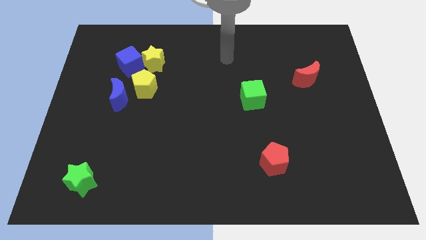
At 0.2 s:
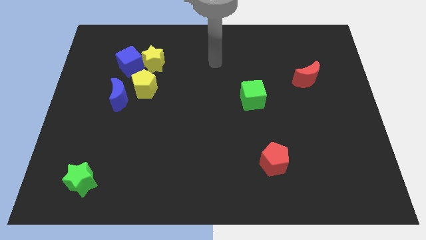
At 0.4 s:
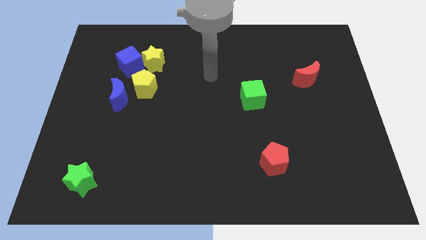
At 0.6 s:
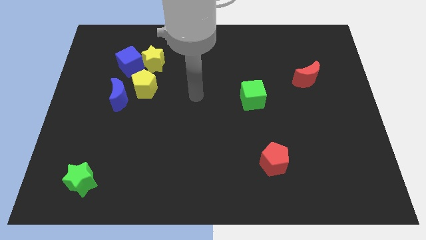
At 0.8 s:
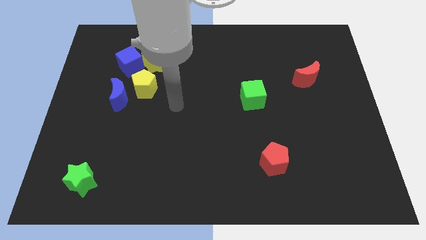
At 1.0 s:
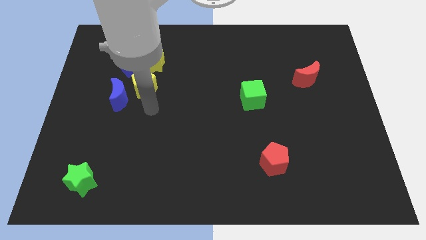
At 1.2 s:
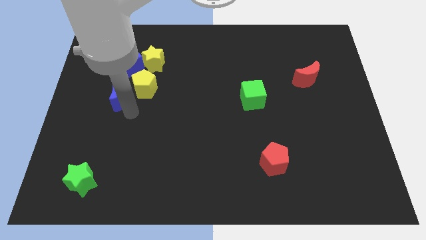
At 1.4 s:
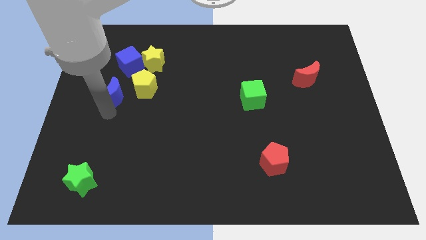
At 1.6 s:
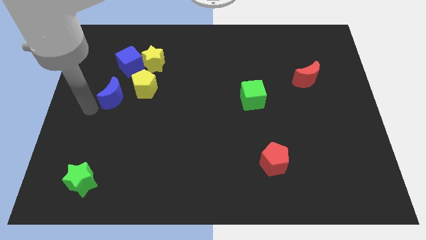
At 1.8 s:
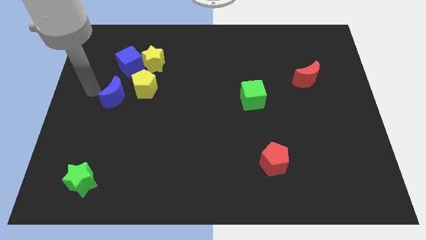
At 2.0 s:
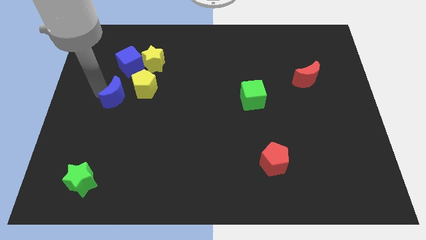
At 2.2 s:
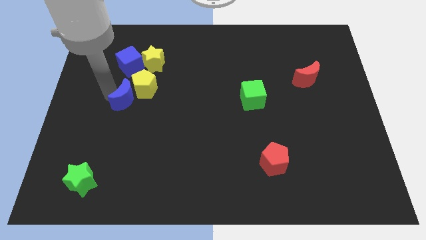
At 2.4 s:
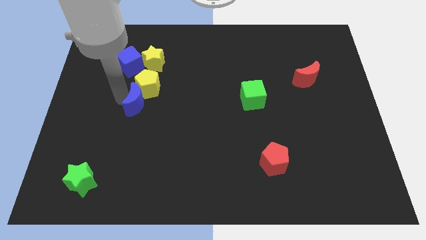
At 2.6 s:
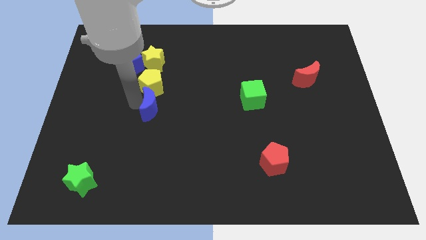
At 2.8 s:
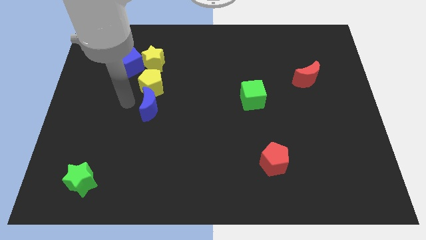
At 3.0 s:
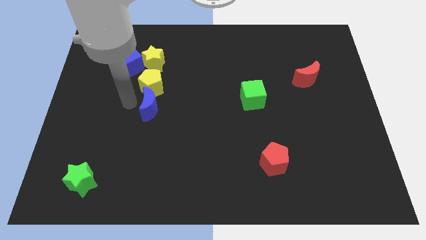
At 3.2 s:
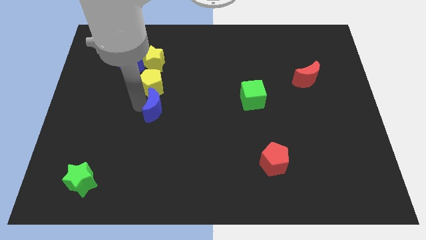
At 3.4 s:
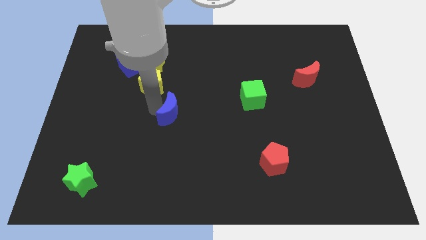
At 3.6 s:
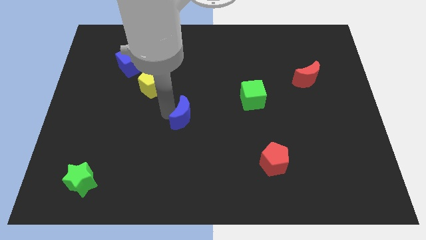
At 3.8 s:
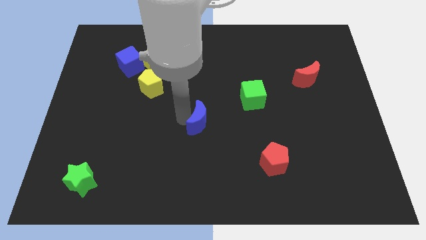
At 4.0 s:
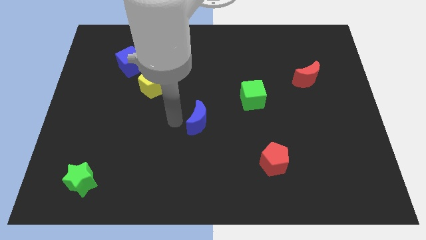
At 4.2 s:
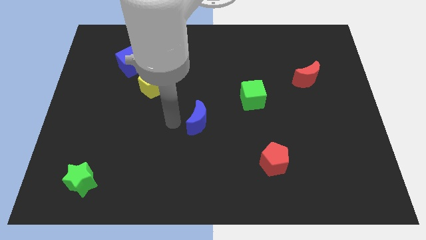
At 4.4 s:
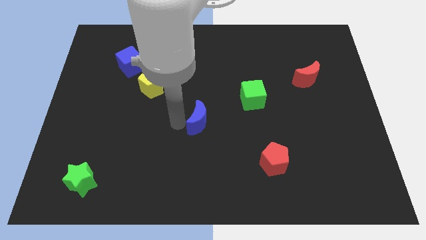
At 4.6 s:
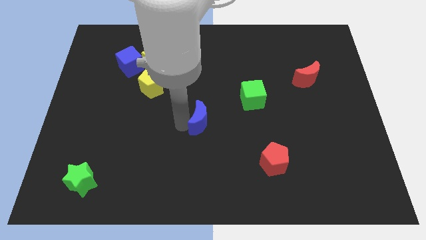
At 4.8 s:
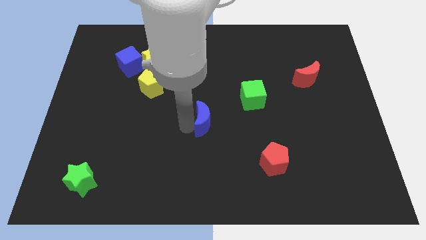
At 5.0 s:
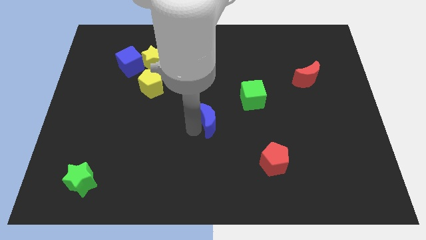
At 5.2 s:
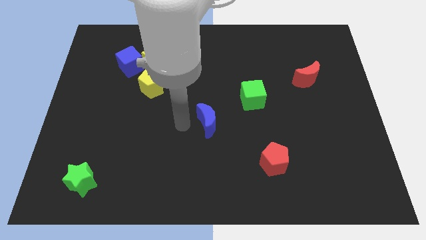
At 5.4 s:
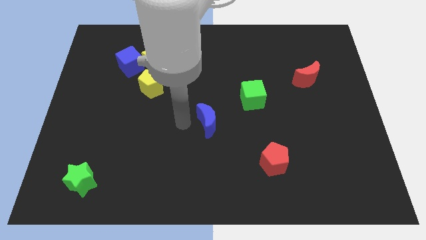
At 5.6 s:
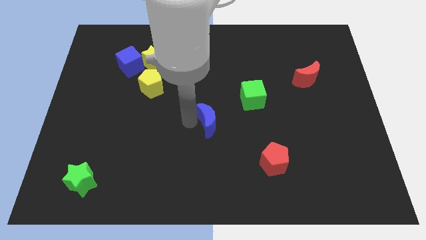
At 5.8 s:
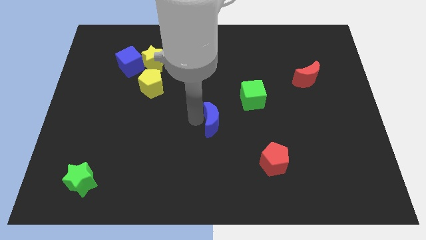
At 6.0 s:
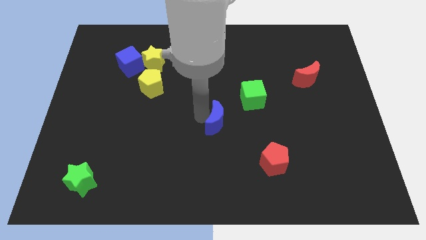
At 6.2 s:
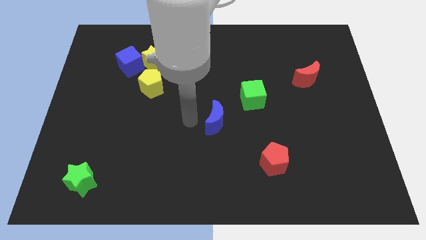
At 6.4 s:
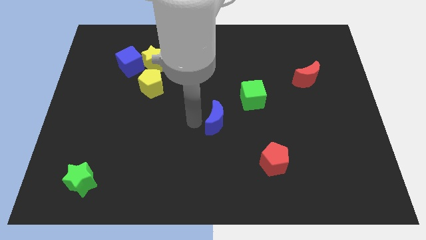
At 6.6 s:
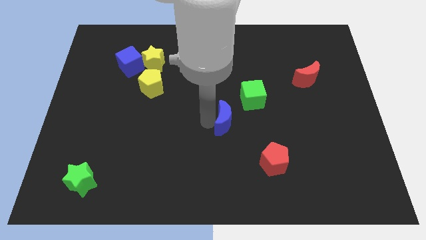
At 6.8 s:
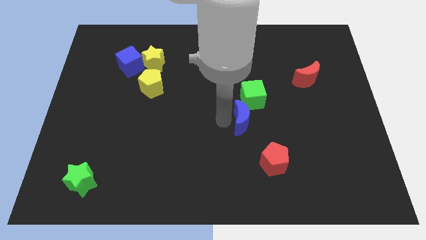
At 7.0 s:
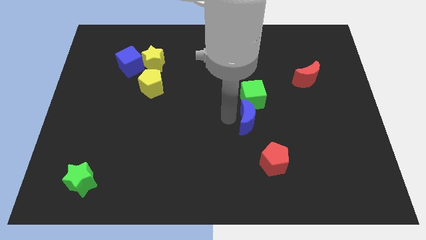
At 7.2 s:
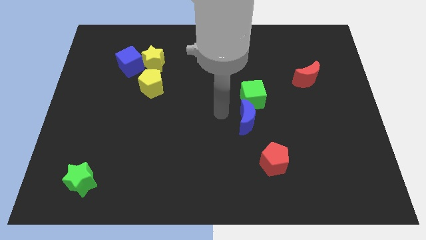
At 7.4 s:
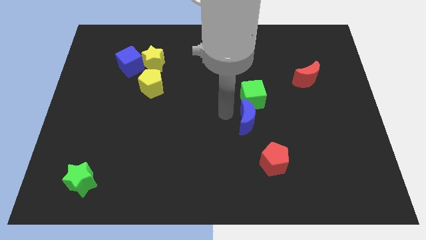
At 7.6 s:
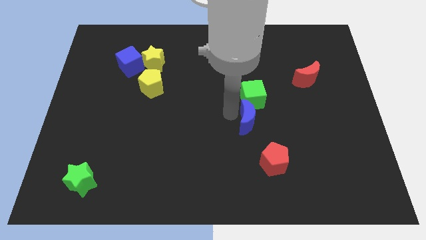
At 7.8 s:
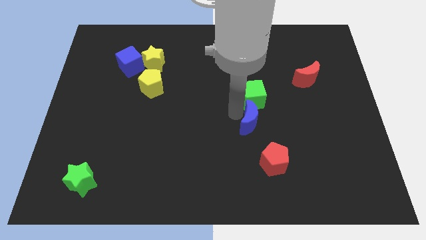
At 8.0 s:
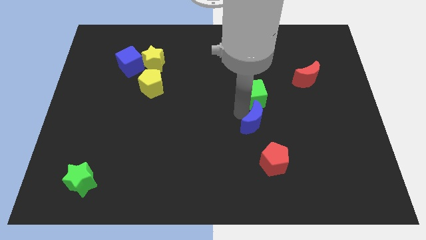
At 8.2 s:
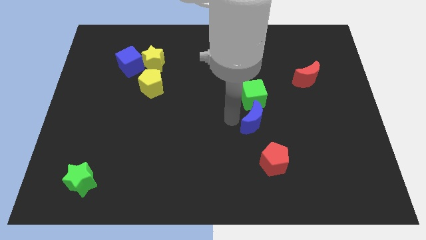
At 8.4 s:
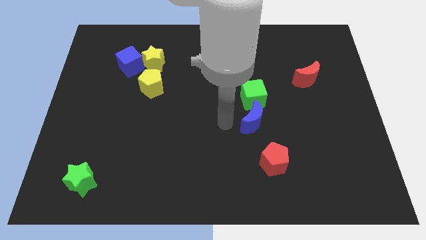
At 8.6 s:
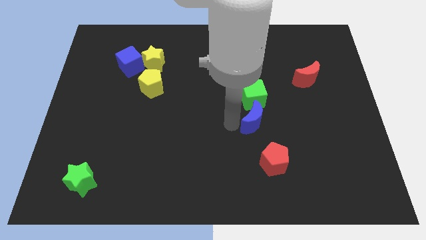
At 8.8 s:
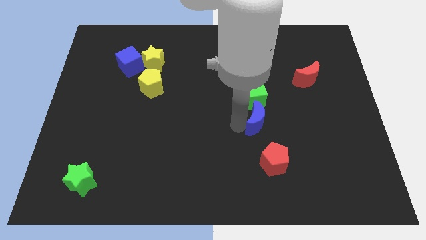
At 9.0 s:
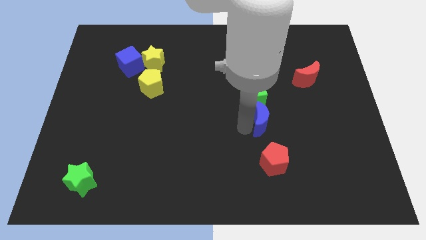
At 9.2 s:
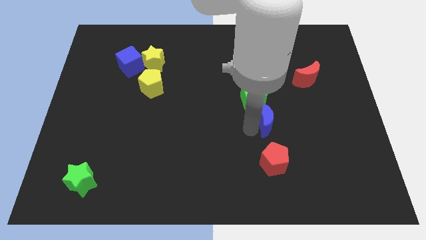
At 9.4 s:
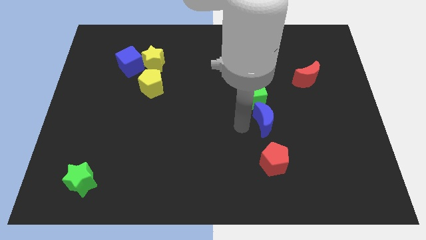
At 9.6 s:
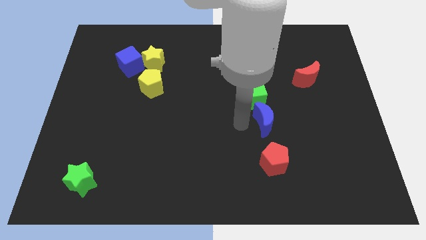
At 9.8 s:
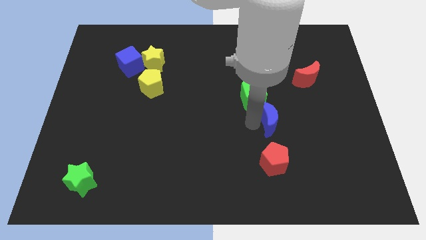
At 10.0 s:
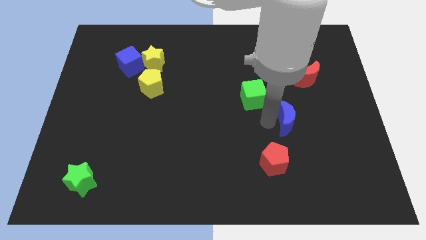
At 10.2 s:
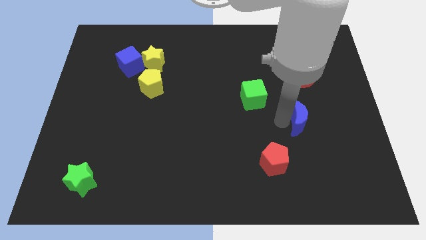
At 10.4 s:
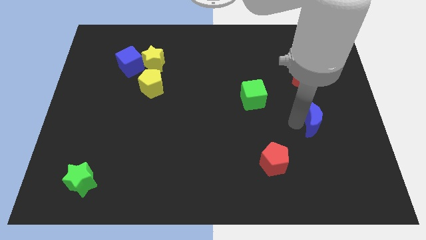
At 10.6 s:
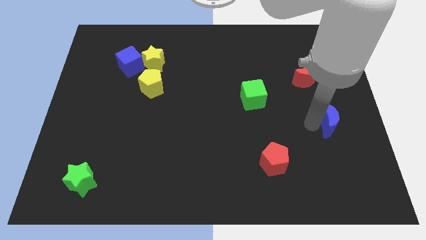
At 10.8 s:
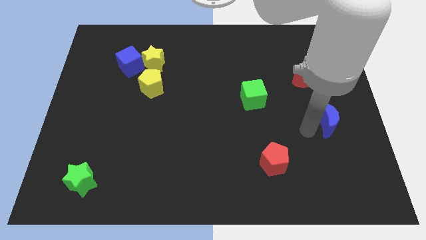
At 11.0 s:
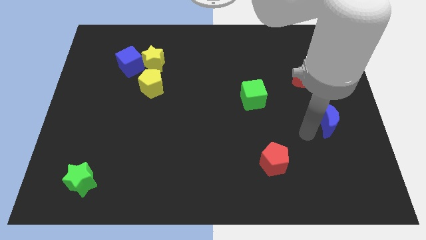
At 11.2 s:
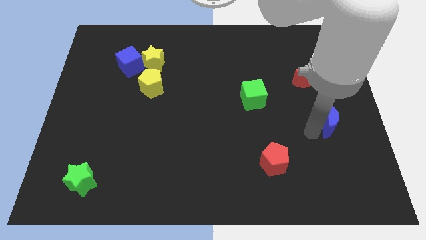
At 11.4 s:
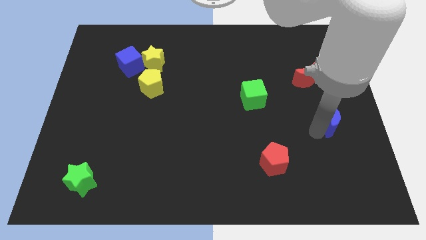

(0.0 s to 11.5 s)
slide the blue moon to the right side of the board

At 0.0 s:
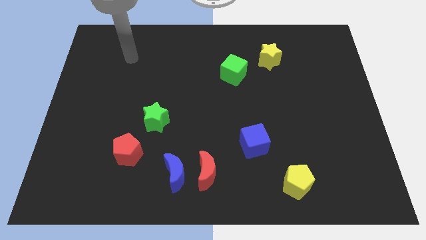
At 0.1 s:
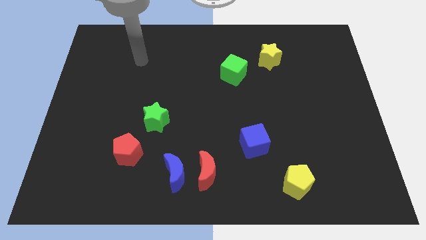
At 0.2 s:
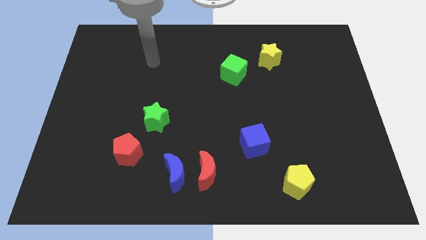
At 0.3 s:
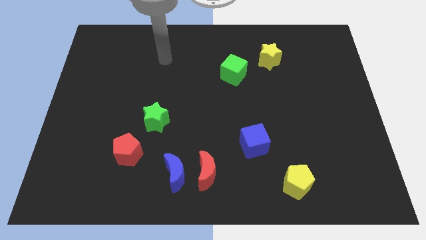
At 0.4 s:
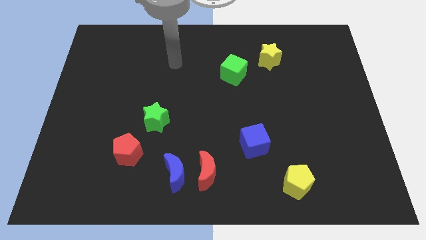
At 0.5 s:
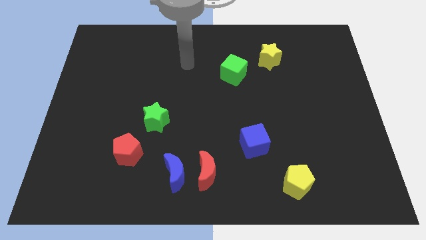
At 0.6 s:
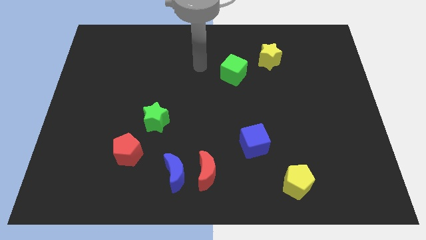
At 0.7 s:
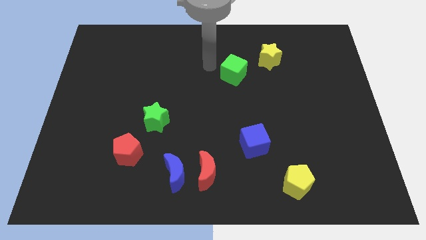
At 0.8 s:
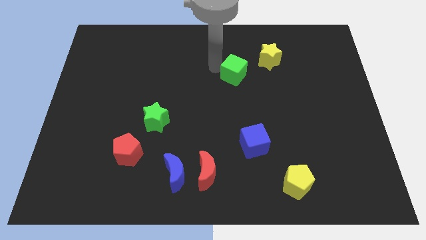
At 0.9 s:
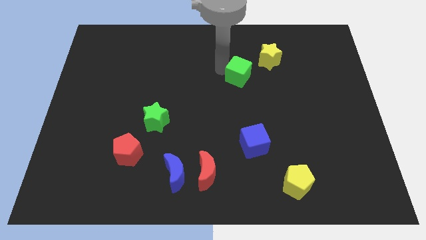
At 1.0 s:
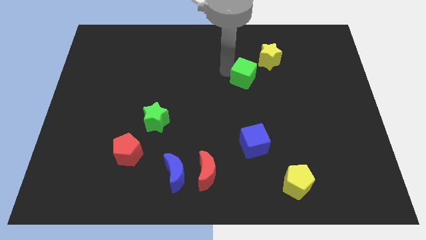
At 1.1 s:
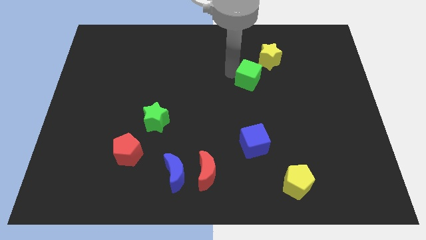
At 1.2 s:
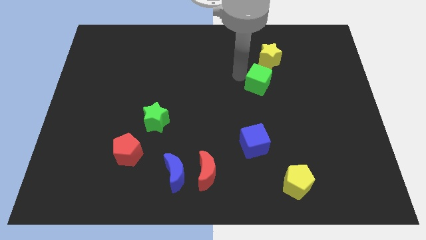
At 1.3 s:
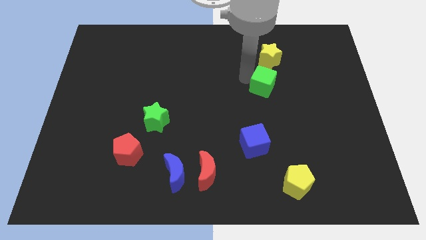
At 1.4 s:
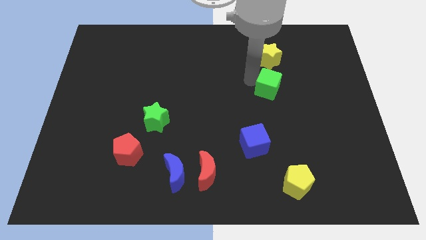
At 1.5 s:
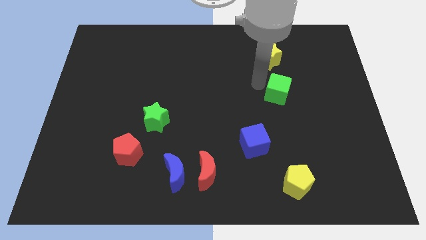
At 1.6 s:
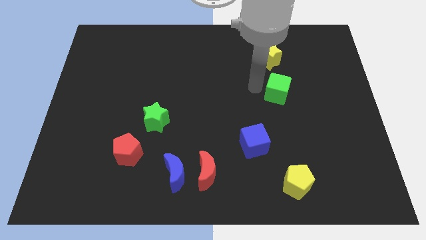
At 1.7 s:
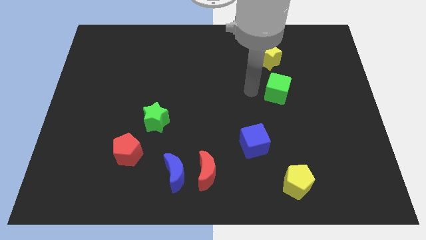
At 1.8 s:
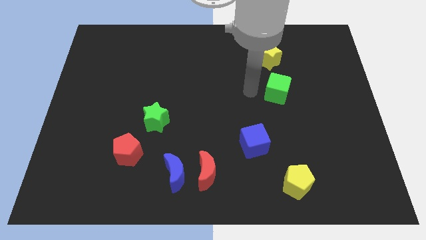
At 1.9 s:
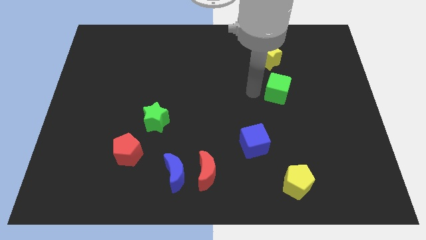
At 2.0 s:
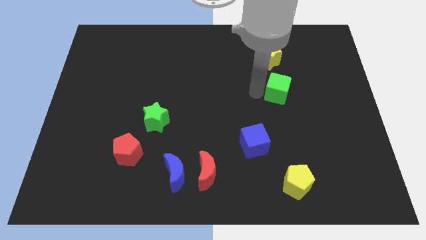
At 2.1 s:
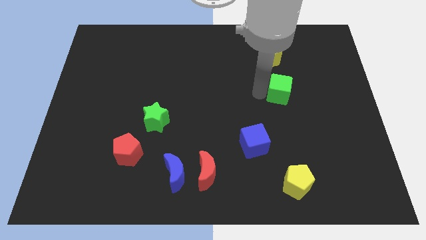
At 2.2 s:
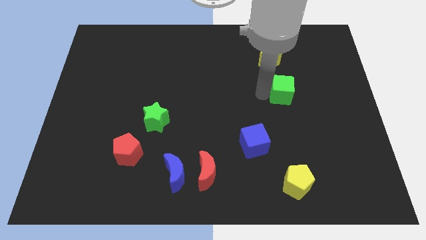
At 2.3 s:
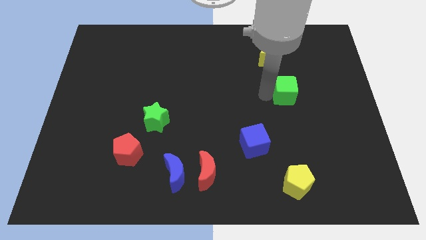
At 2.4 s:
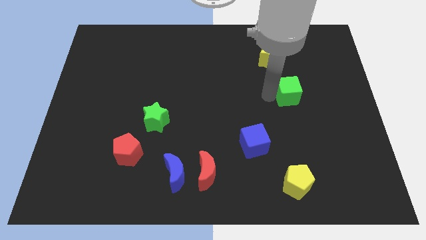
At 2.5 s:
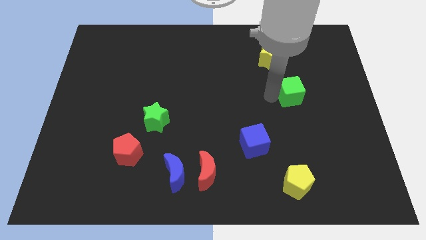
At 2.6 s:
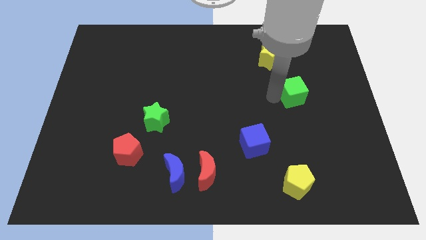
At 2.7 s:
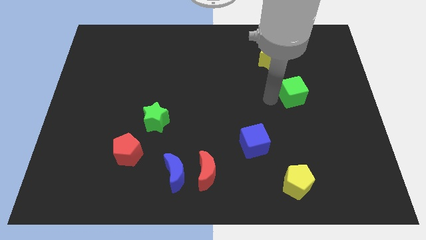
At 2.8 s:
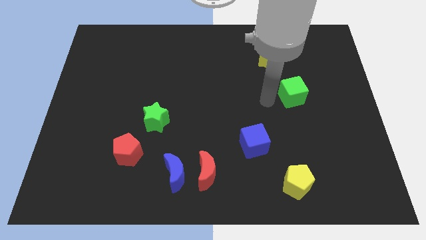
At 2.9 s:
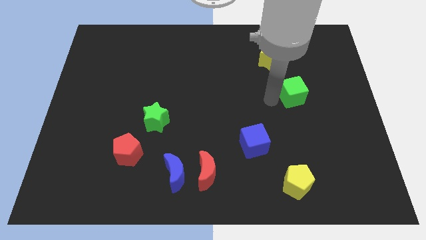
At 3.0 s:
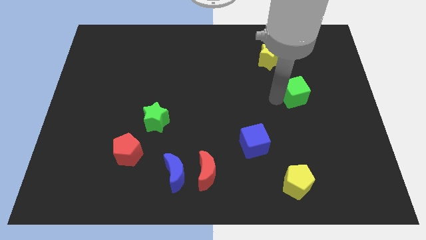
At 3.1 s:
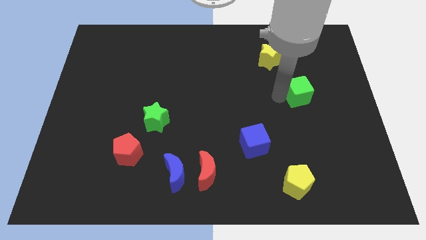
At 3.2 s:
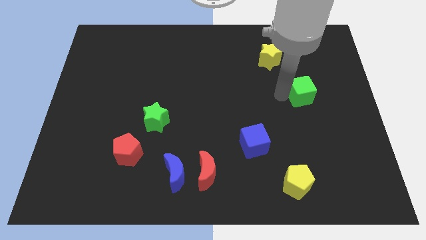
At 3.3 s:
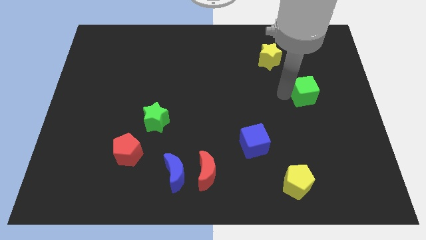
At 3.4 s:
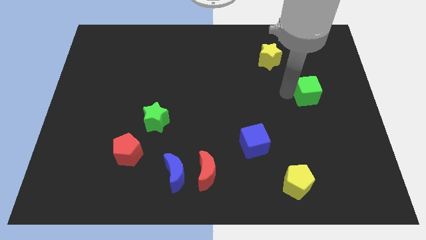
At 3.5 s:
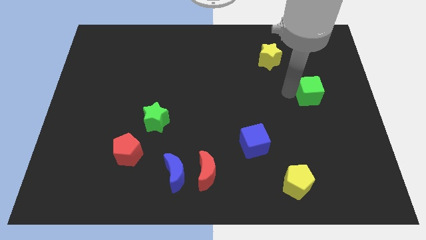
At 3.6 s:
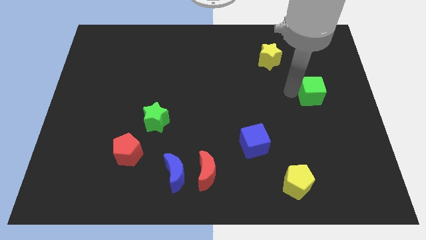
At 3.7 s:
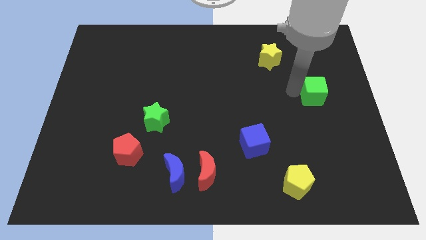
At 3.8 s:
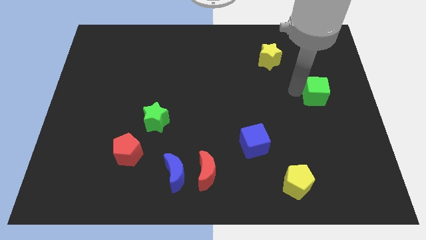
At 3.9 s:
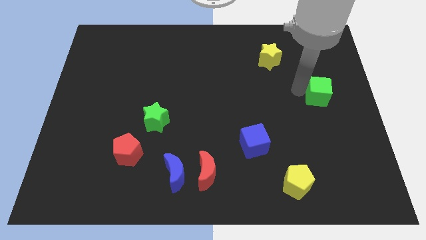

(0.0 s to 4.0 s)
move the green cube to the right side of the board
